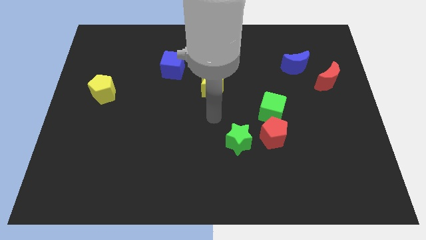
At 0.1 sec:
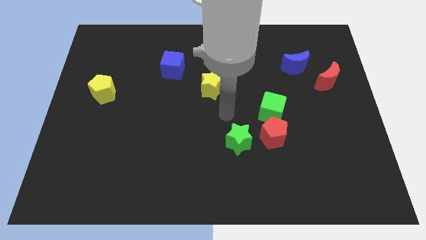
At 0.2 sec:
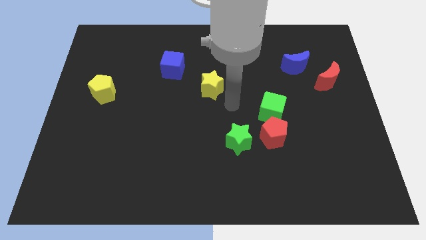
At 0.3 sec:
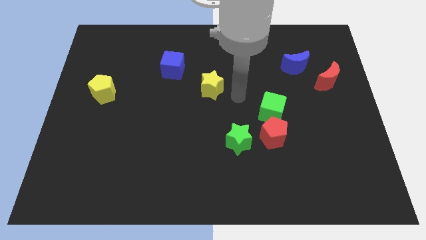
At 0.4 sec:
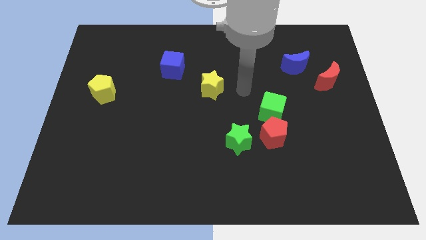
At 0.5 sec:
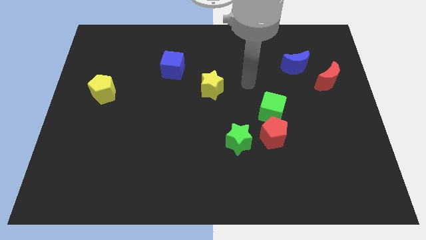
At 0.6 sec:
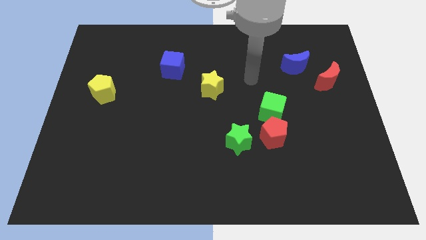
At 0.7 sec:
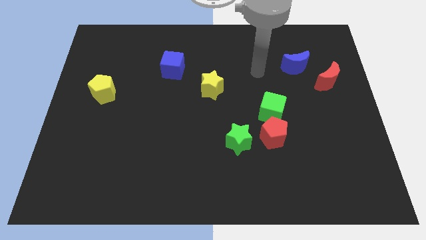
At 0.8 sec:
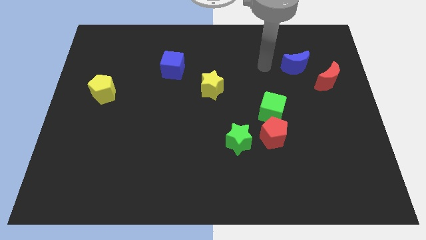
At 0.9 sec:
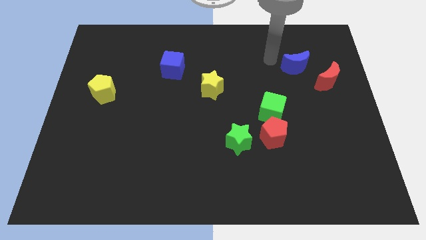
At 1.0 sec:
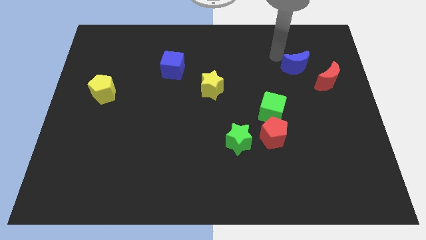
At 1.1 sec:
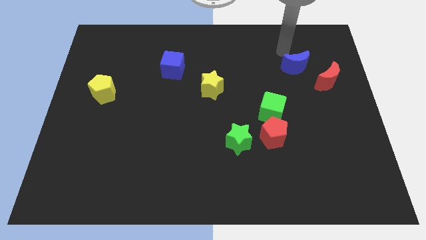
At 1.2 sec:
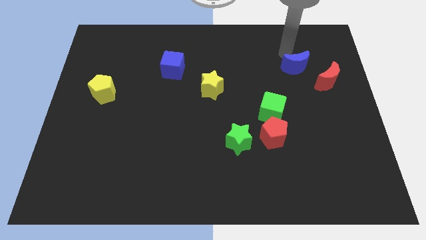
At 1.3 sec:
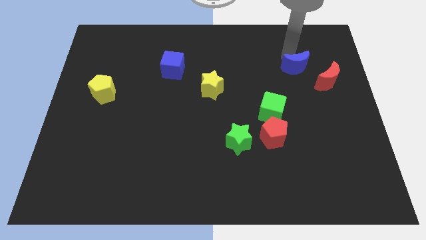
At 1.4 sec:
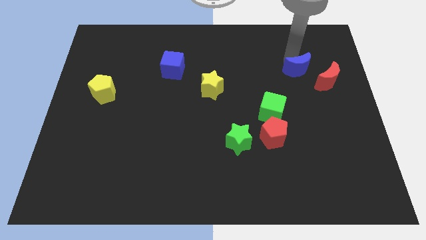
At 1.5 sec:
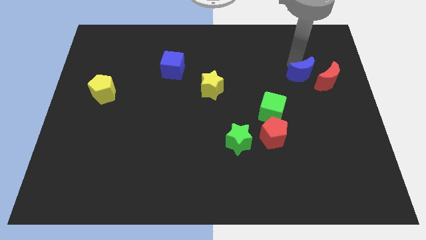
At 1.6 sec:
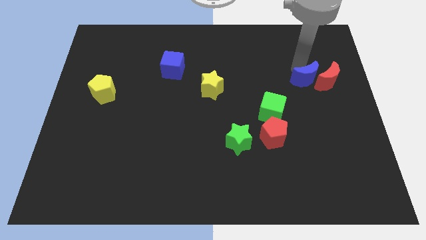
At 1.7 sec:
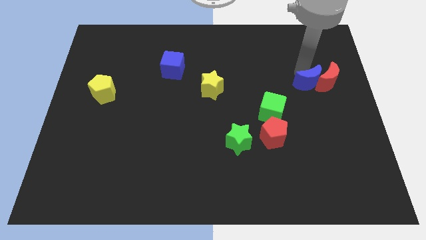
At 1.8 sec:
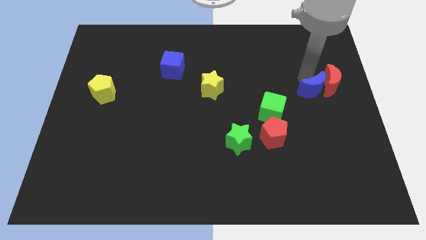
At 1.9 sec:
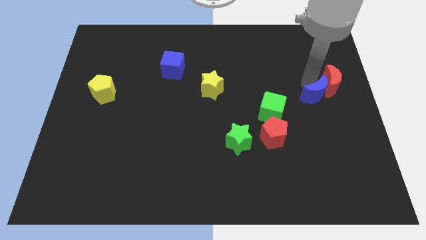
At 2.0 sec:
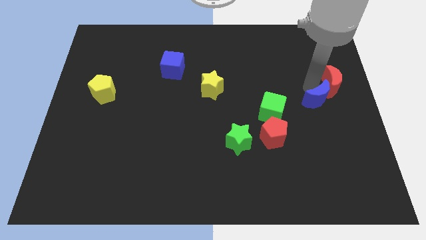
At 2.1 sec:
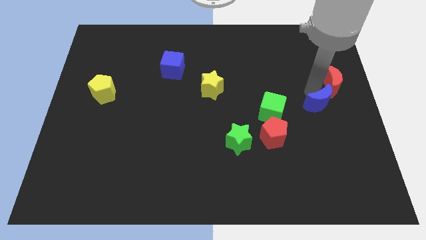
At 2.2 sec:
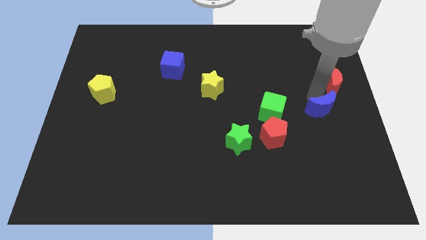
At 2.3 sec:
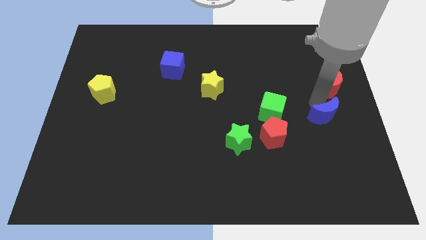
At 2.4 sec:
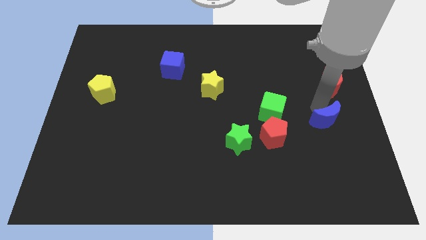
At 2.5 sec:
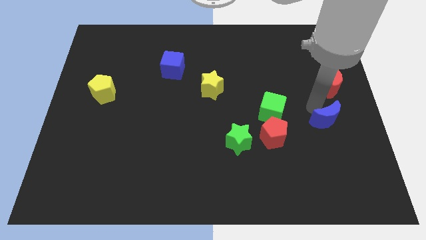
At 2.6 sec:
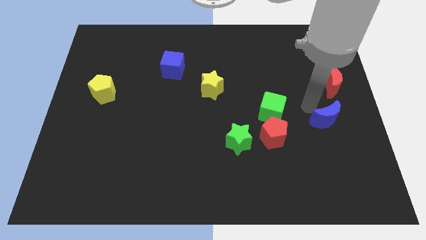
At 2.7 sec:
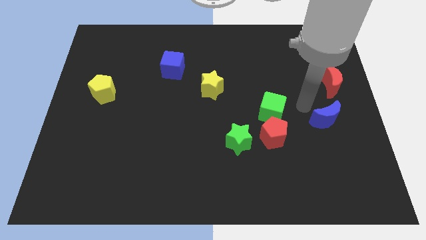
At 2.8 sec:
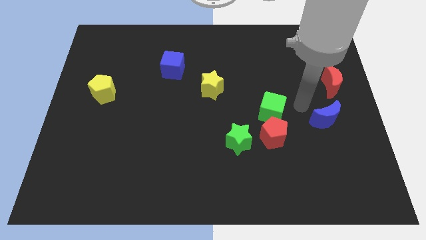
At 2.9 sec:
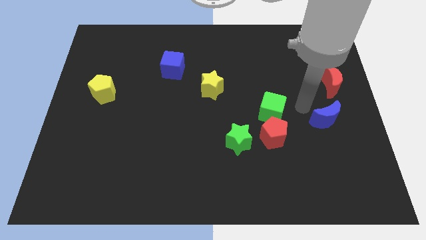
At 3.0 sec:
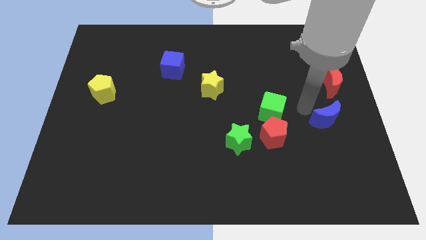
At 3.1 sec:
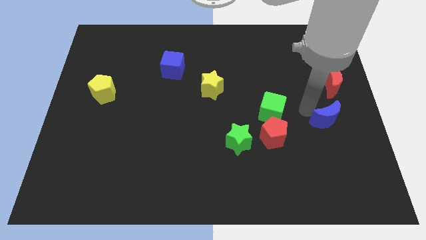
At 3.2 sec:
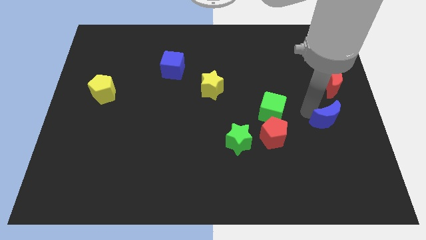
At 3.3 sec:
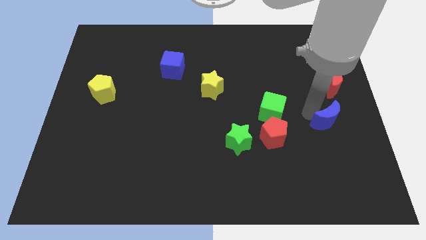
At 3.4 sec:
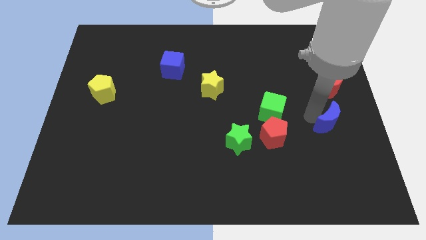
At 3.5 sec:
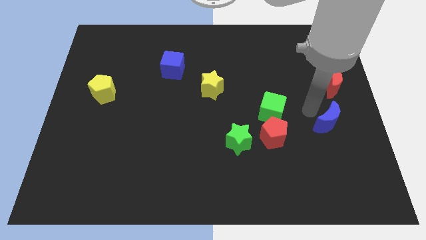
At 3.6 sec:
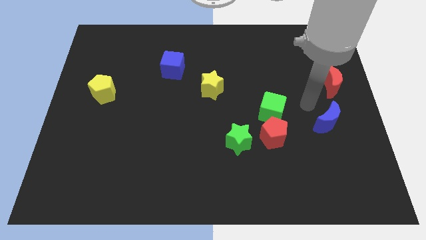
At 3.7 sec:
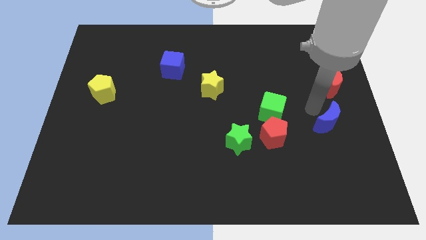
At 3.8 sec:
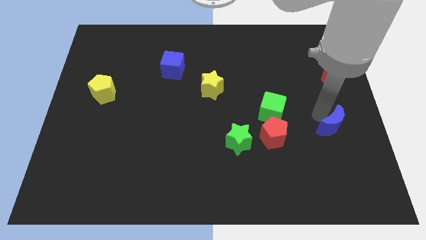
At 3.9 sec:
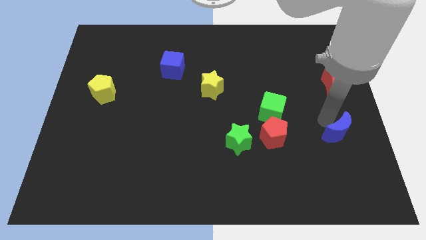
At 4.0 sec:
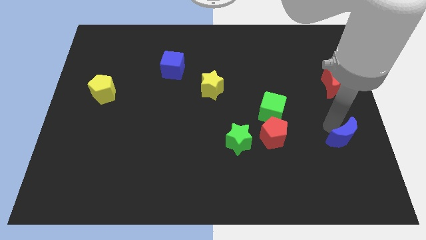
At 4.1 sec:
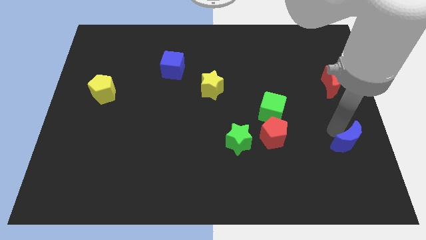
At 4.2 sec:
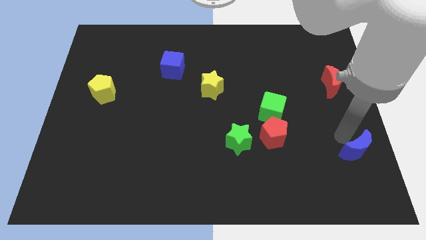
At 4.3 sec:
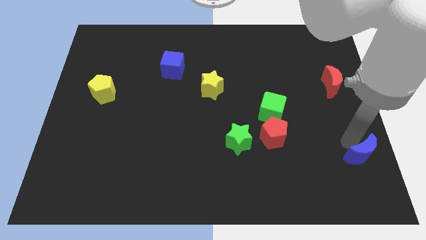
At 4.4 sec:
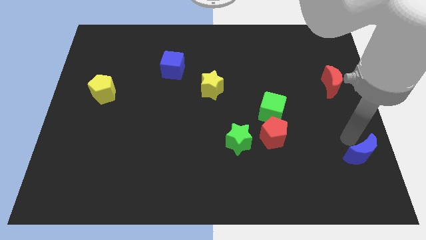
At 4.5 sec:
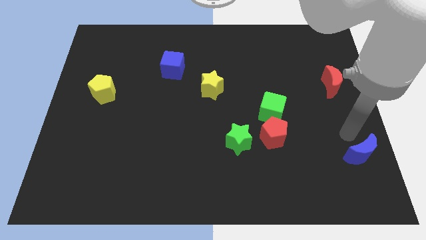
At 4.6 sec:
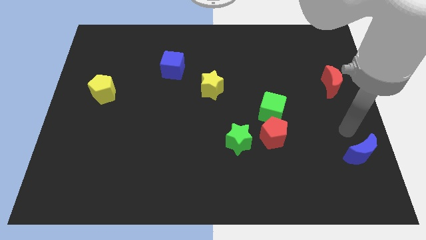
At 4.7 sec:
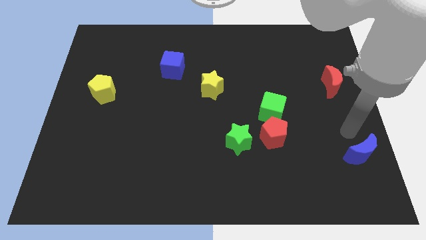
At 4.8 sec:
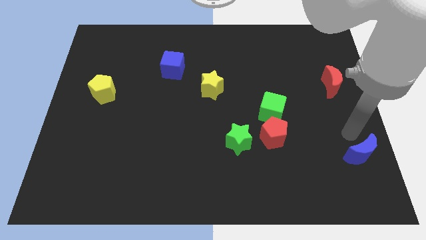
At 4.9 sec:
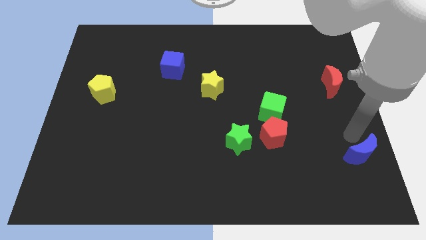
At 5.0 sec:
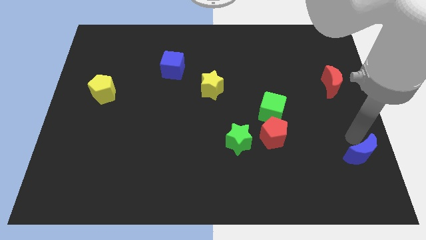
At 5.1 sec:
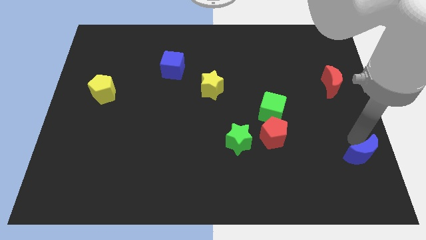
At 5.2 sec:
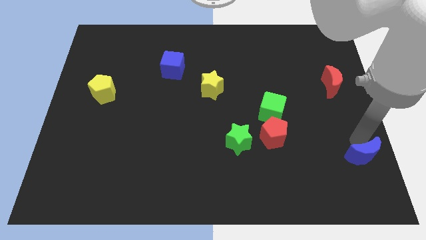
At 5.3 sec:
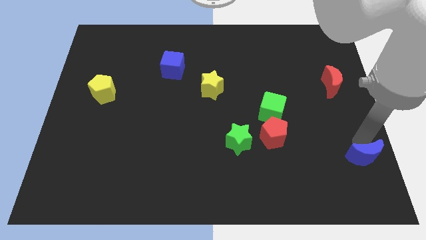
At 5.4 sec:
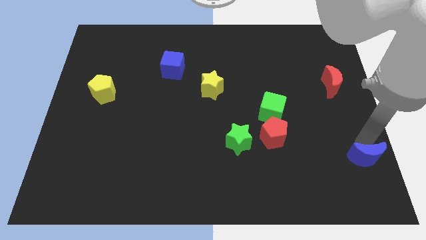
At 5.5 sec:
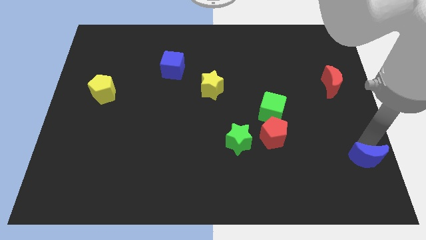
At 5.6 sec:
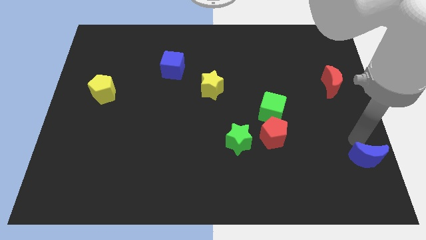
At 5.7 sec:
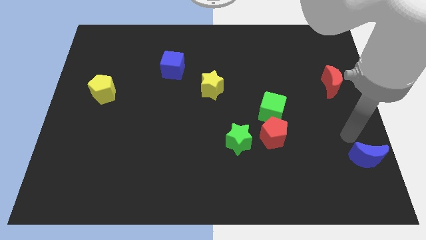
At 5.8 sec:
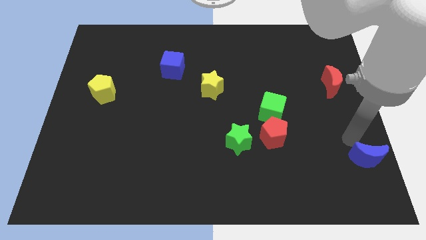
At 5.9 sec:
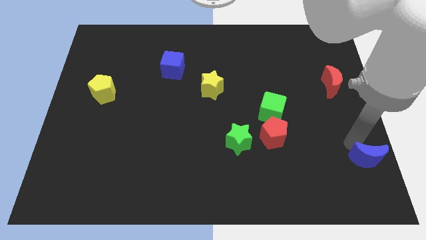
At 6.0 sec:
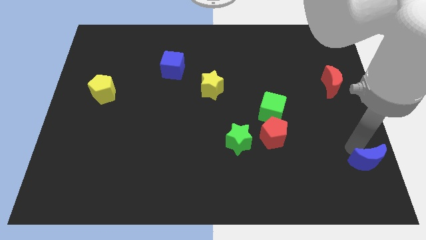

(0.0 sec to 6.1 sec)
move the blue moon to the bottom right corner

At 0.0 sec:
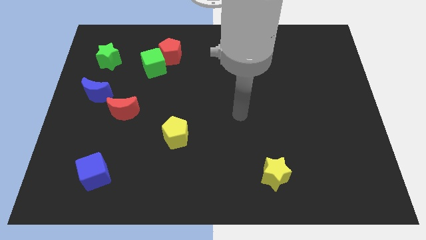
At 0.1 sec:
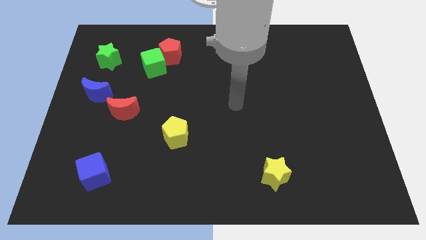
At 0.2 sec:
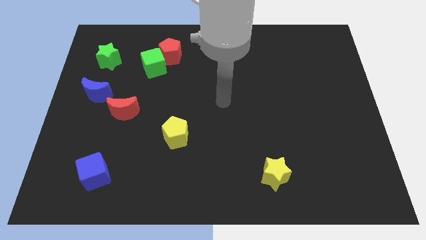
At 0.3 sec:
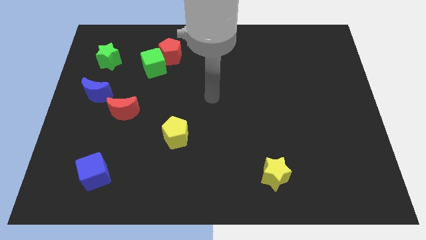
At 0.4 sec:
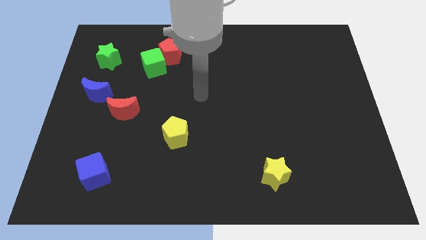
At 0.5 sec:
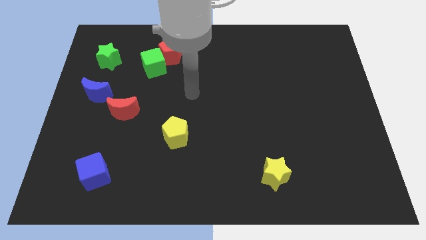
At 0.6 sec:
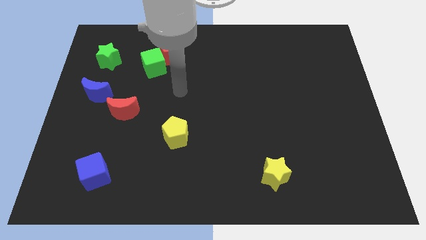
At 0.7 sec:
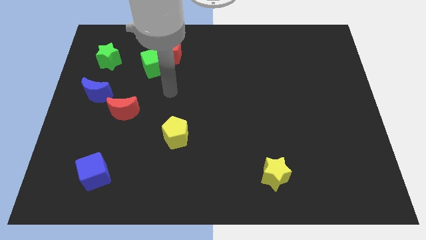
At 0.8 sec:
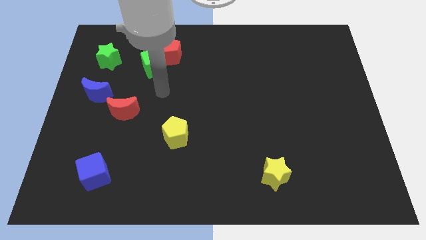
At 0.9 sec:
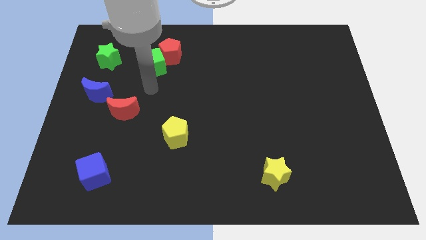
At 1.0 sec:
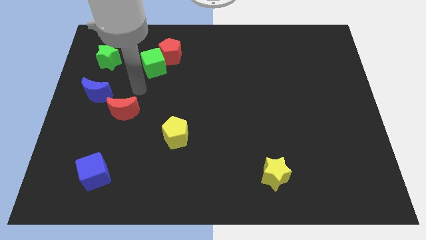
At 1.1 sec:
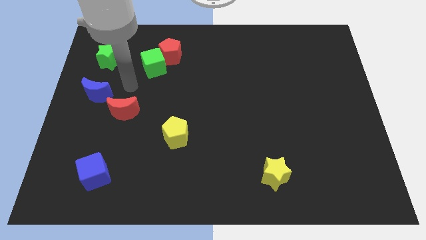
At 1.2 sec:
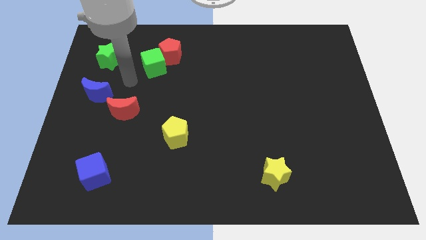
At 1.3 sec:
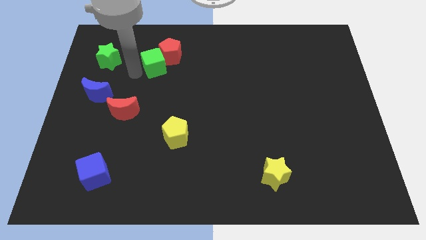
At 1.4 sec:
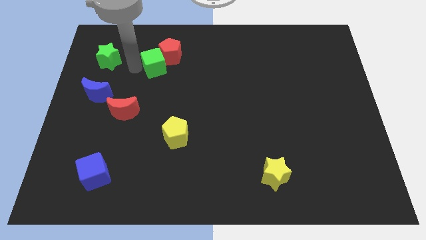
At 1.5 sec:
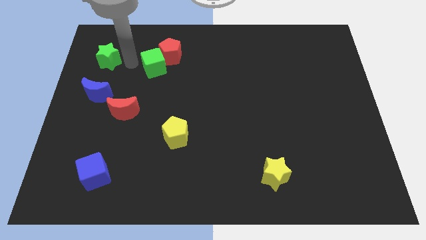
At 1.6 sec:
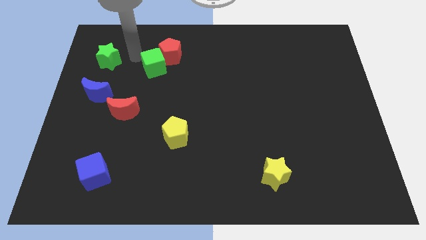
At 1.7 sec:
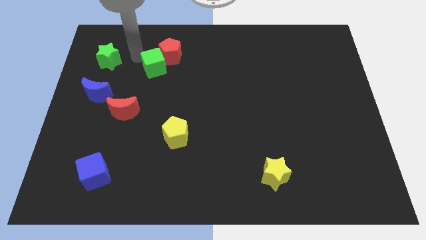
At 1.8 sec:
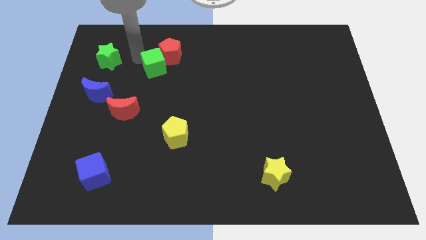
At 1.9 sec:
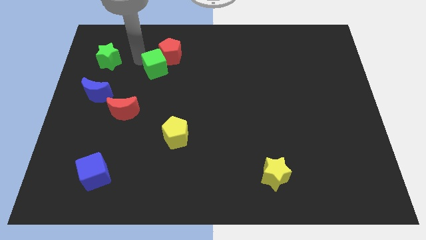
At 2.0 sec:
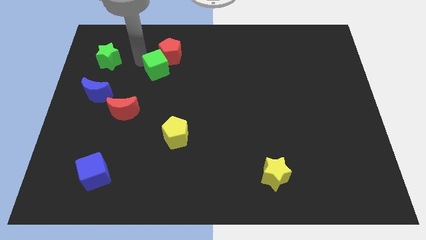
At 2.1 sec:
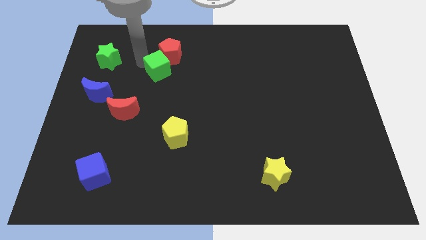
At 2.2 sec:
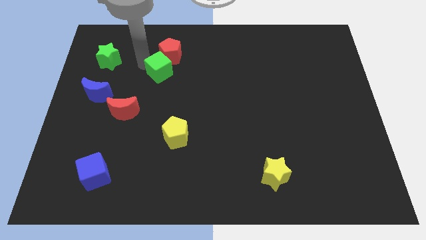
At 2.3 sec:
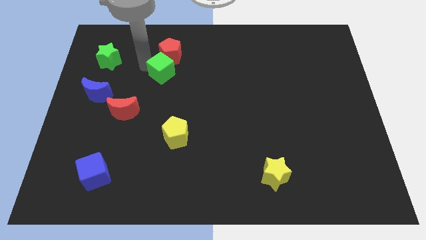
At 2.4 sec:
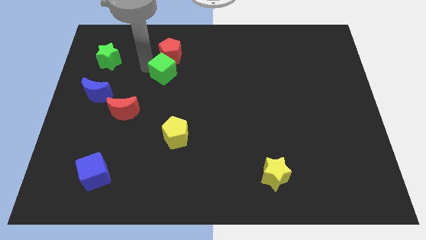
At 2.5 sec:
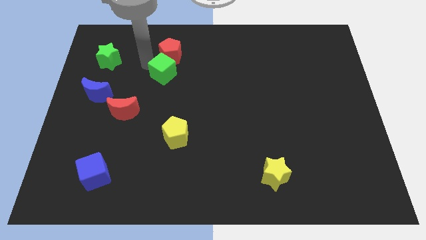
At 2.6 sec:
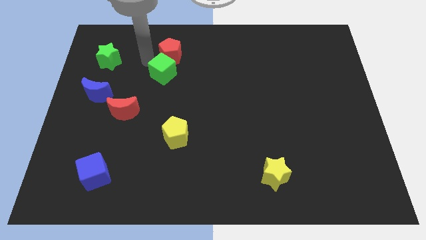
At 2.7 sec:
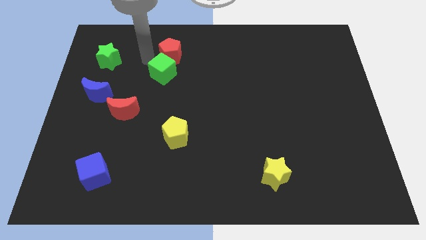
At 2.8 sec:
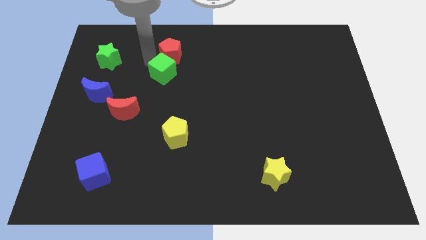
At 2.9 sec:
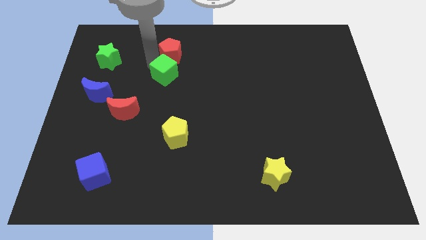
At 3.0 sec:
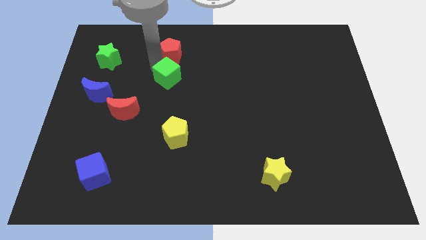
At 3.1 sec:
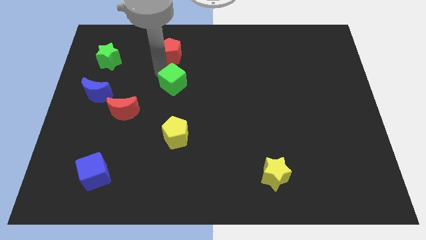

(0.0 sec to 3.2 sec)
push the green cube to the center
